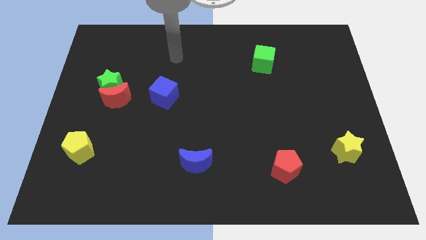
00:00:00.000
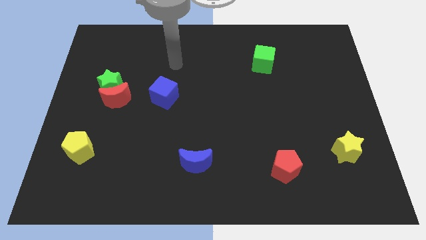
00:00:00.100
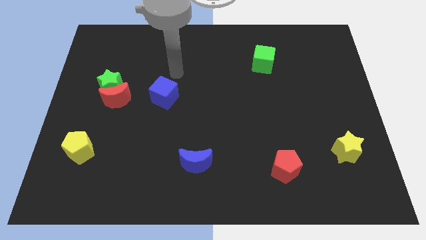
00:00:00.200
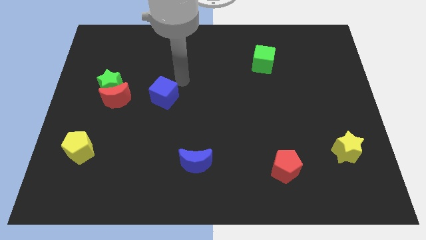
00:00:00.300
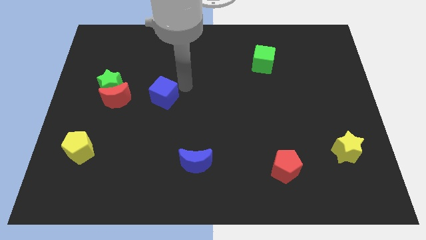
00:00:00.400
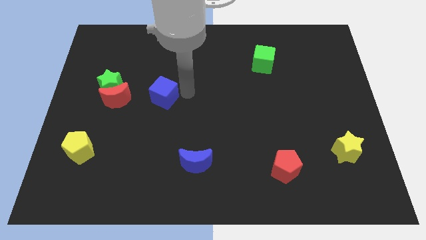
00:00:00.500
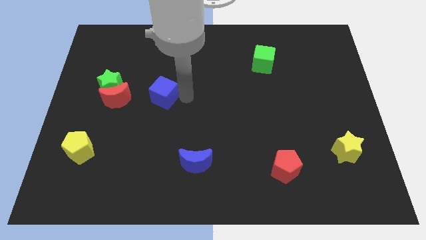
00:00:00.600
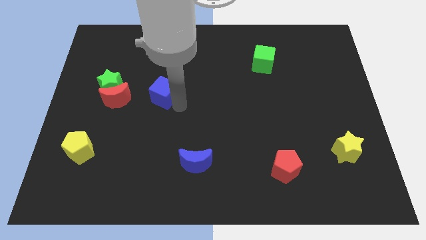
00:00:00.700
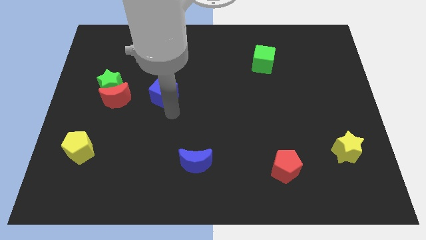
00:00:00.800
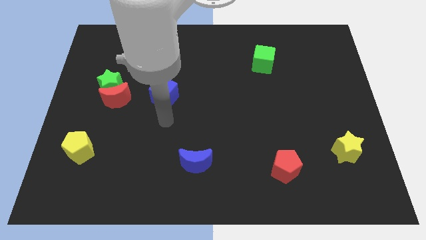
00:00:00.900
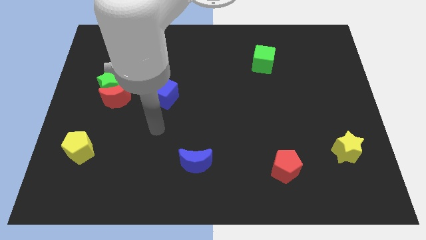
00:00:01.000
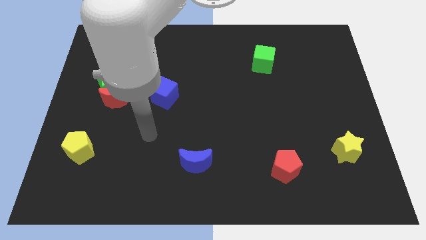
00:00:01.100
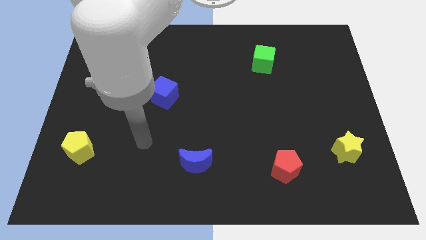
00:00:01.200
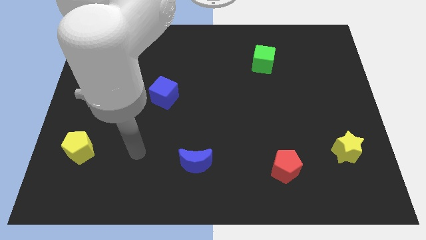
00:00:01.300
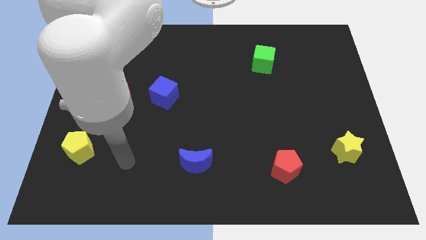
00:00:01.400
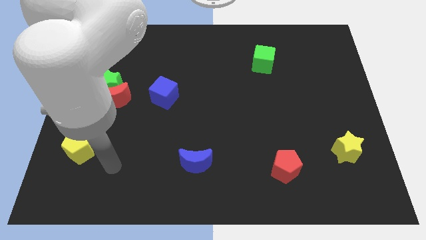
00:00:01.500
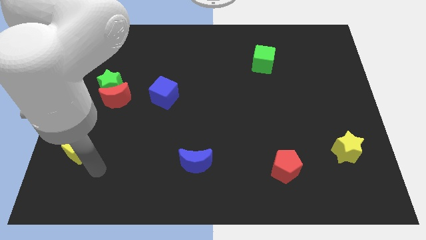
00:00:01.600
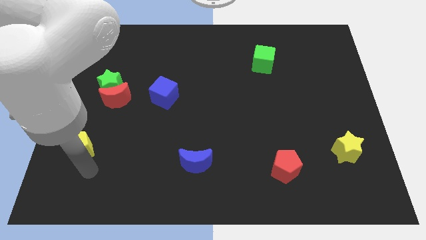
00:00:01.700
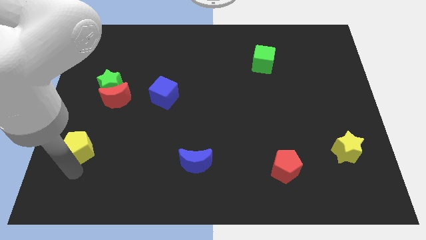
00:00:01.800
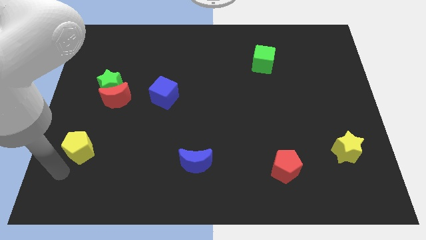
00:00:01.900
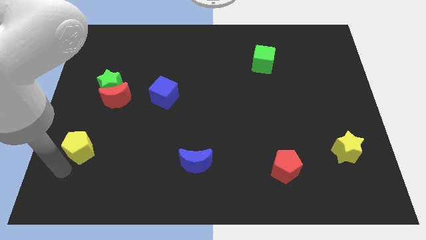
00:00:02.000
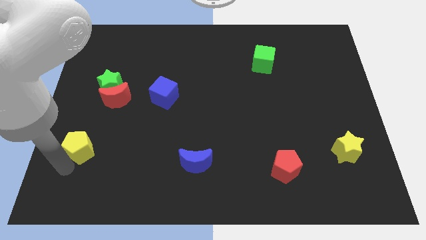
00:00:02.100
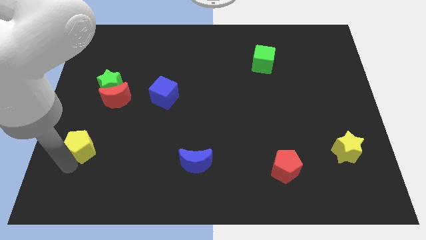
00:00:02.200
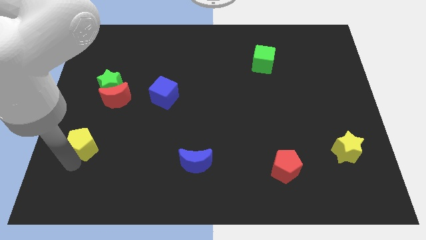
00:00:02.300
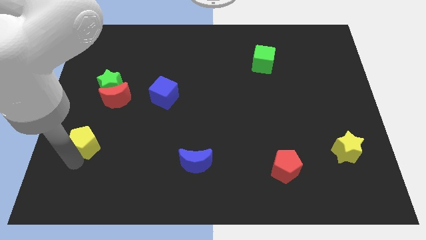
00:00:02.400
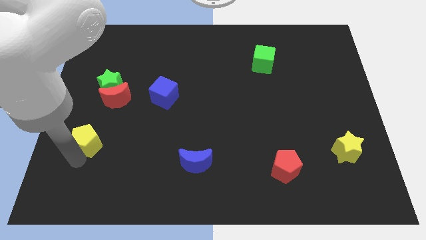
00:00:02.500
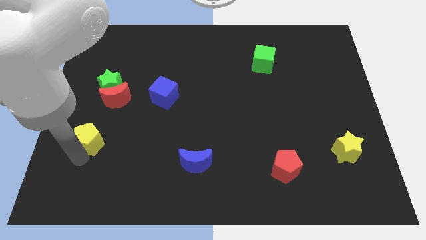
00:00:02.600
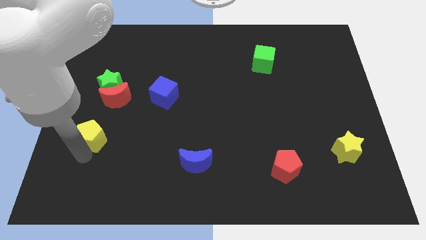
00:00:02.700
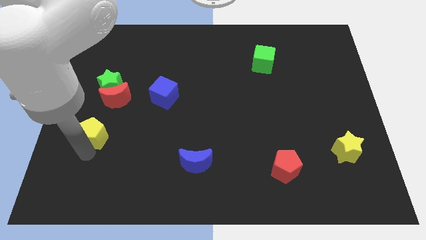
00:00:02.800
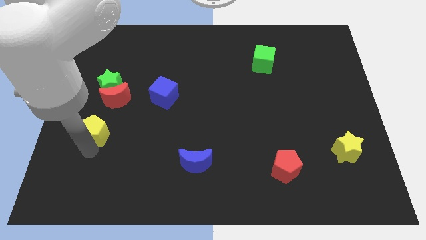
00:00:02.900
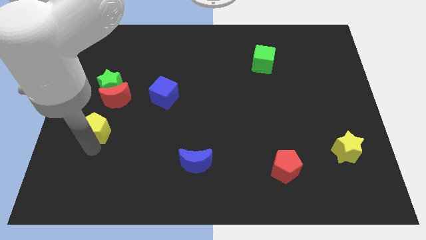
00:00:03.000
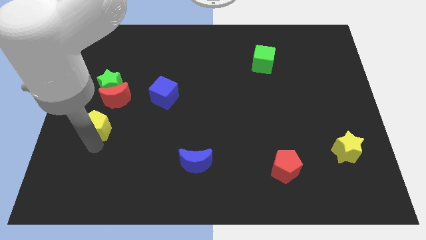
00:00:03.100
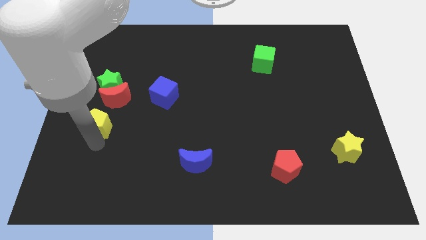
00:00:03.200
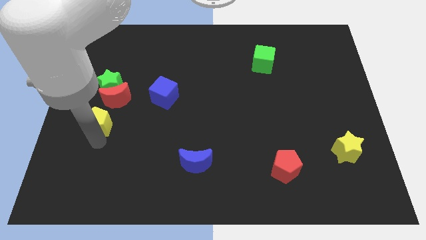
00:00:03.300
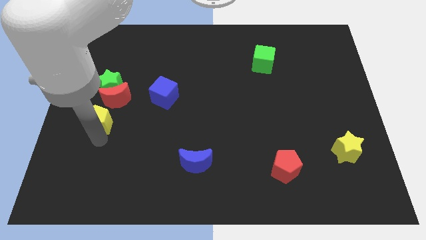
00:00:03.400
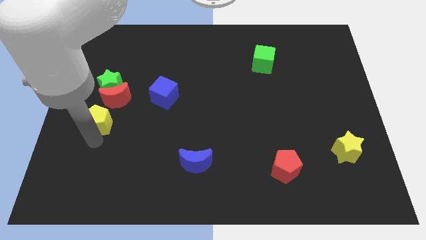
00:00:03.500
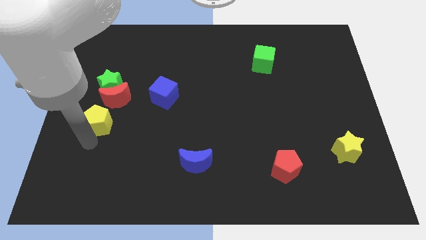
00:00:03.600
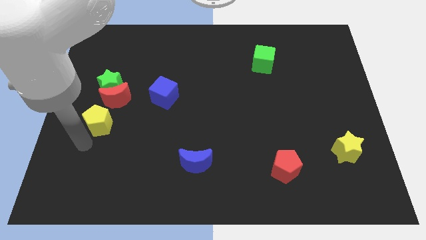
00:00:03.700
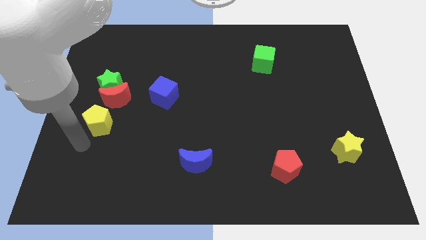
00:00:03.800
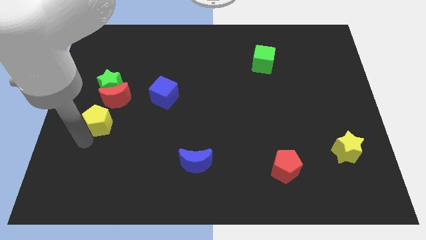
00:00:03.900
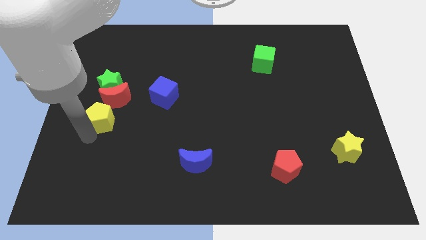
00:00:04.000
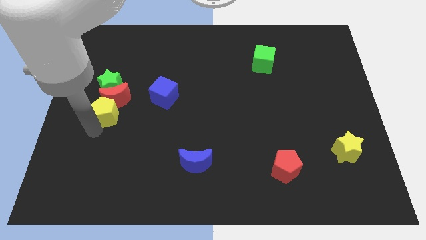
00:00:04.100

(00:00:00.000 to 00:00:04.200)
slide the yellow pentagon close to the red moon

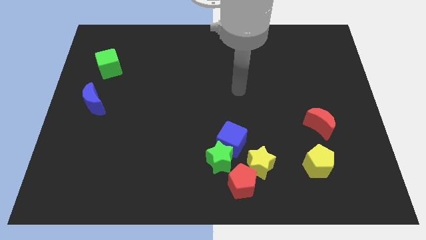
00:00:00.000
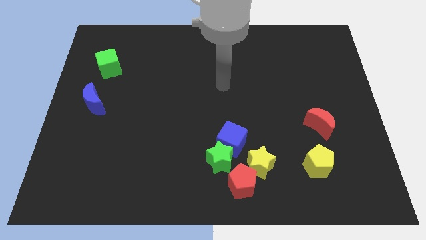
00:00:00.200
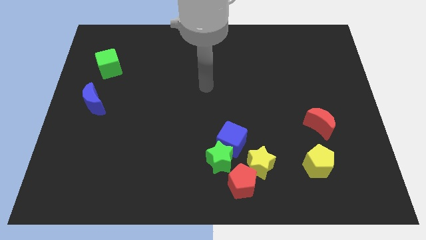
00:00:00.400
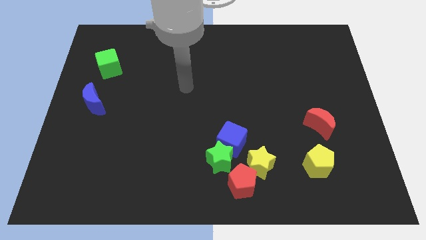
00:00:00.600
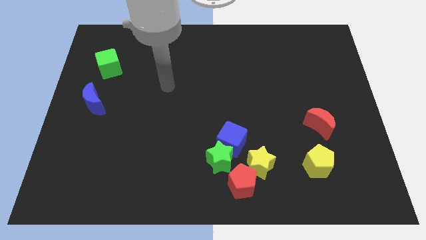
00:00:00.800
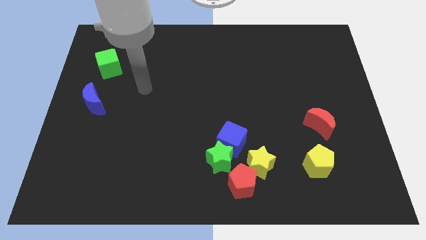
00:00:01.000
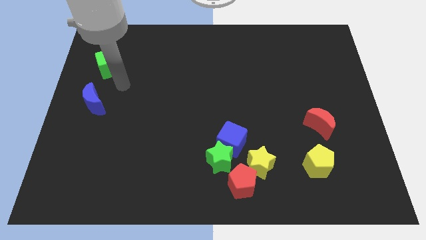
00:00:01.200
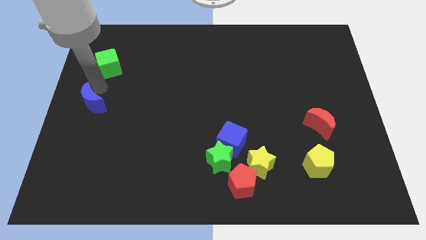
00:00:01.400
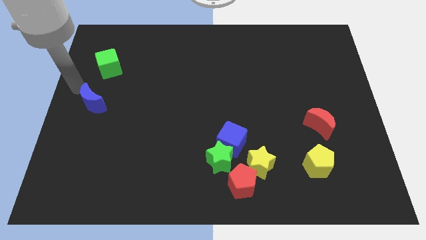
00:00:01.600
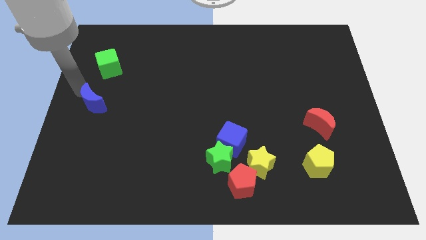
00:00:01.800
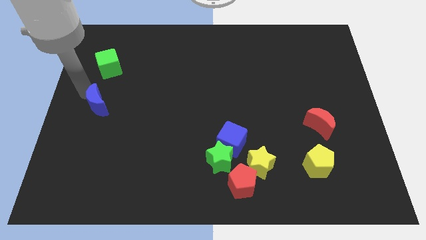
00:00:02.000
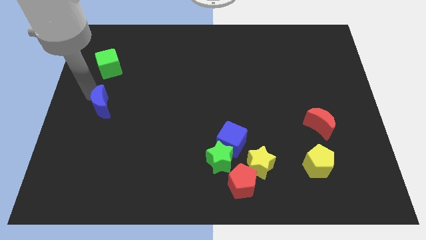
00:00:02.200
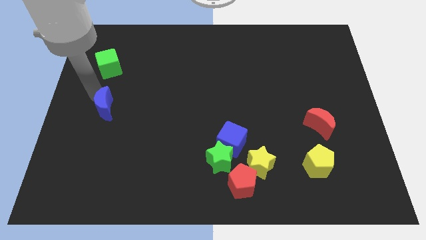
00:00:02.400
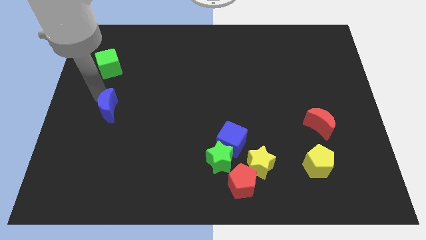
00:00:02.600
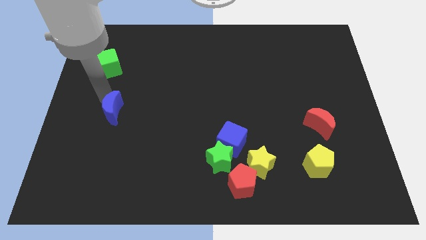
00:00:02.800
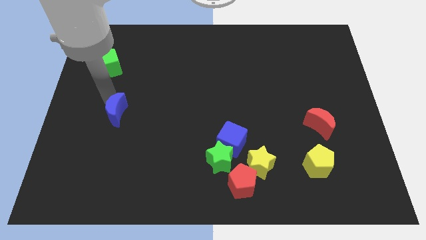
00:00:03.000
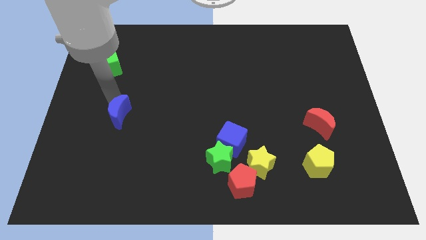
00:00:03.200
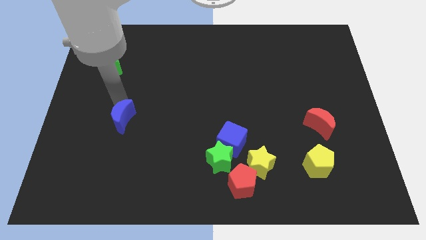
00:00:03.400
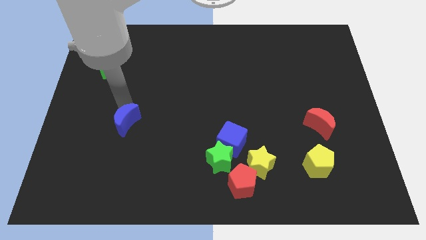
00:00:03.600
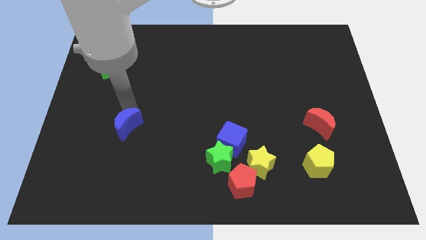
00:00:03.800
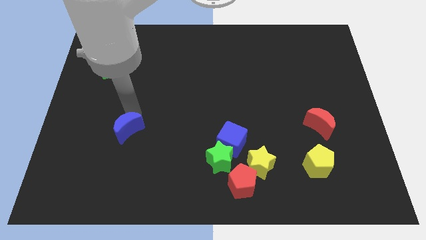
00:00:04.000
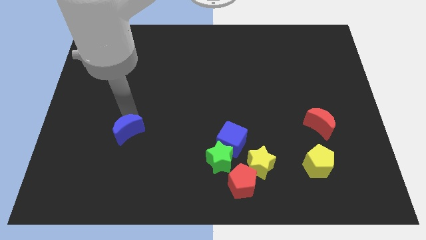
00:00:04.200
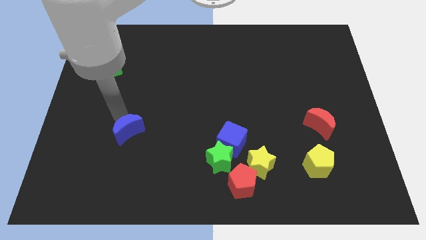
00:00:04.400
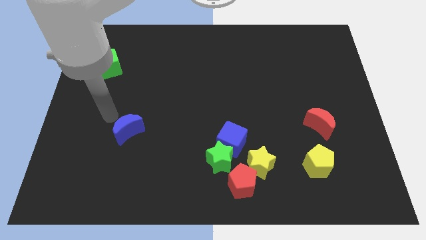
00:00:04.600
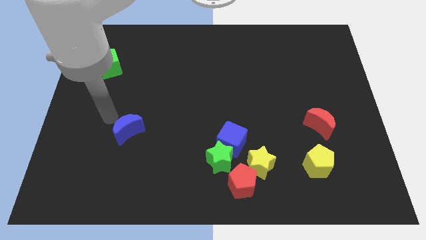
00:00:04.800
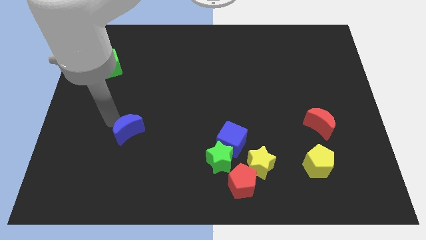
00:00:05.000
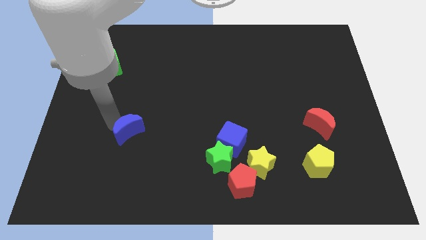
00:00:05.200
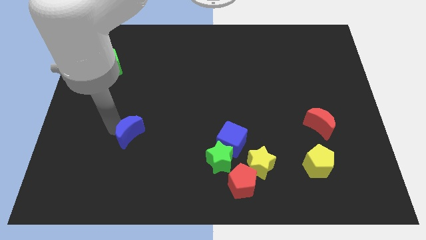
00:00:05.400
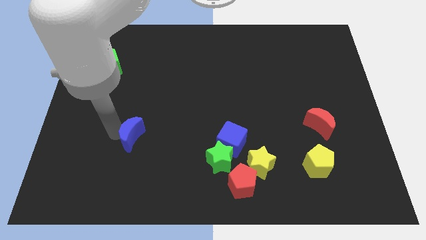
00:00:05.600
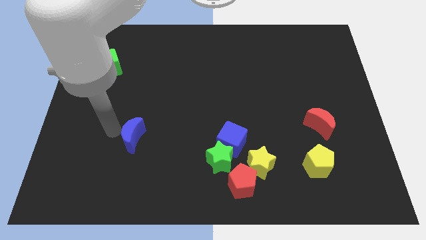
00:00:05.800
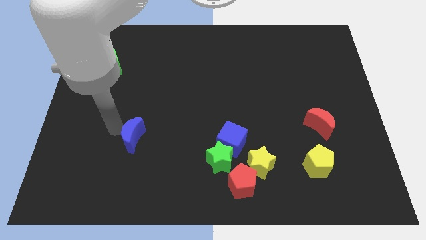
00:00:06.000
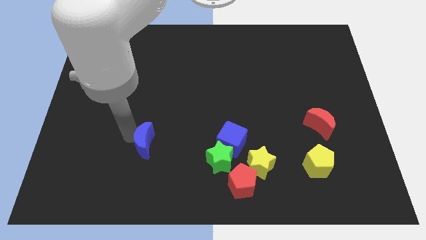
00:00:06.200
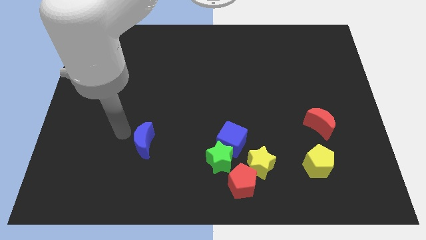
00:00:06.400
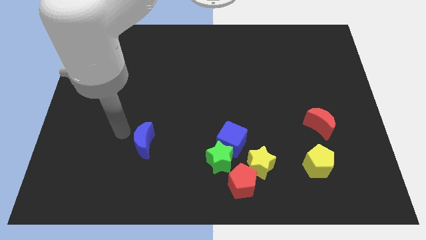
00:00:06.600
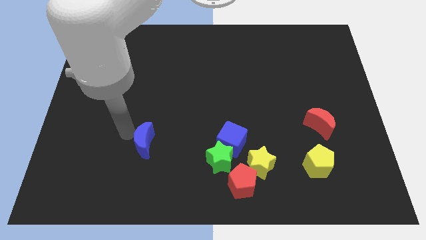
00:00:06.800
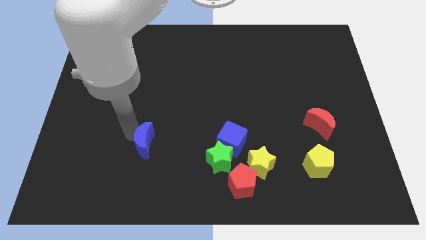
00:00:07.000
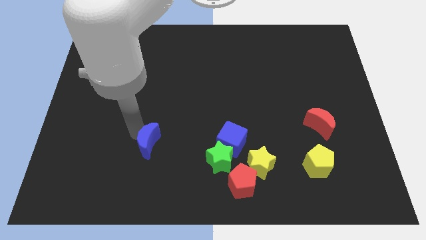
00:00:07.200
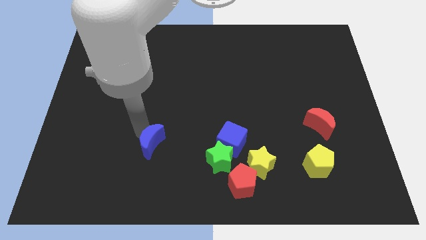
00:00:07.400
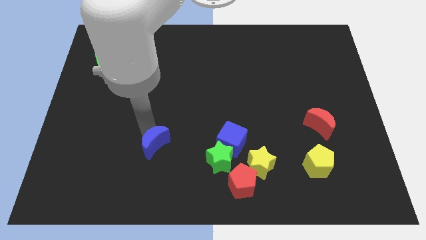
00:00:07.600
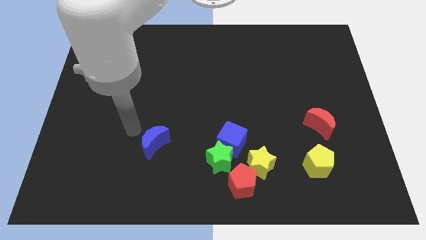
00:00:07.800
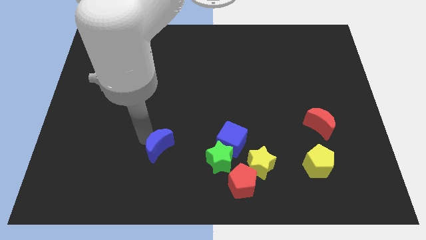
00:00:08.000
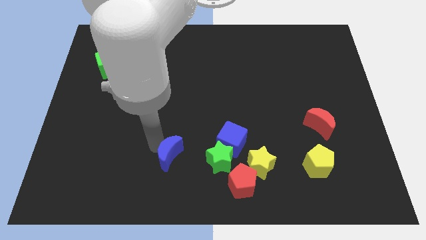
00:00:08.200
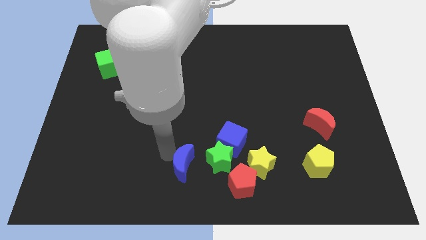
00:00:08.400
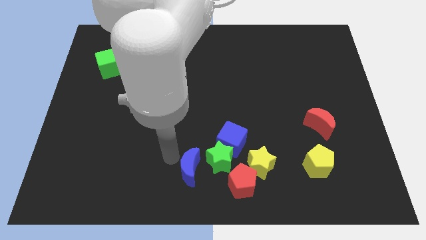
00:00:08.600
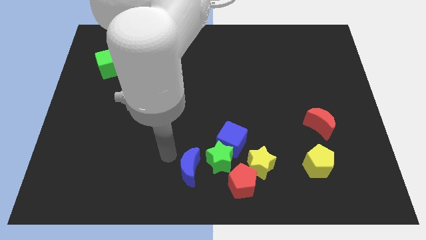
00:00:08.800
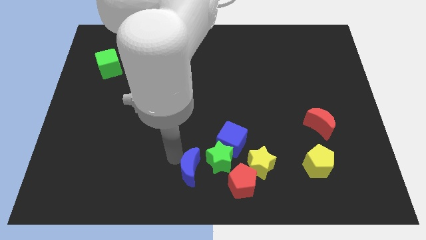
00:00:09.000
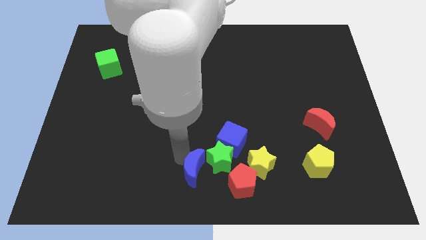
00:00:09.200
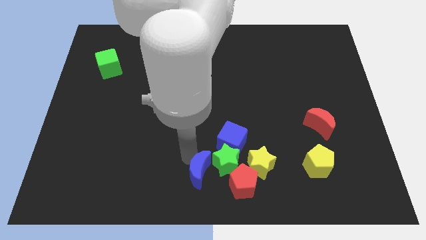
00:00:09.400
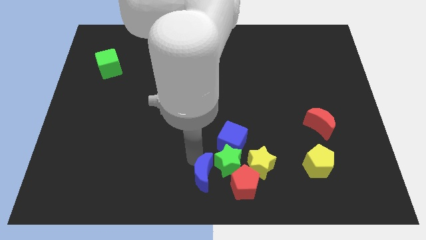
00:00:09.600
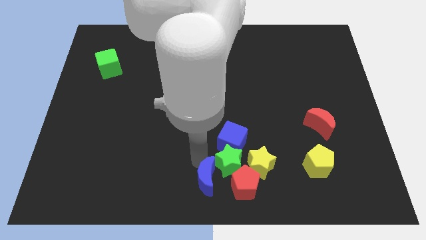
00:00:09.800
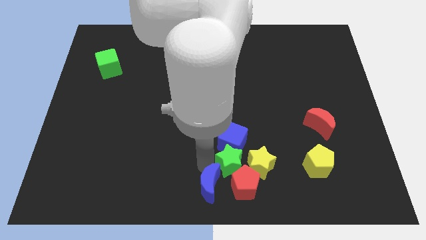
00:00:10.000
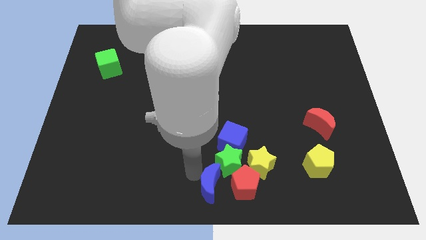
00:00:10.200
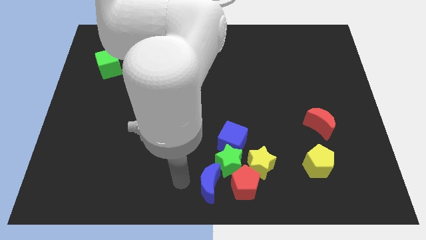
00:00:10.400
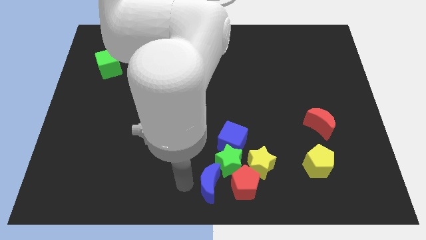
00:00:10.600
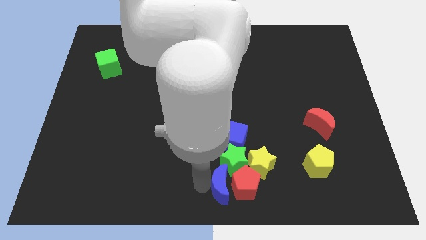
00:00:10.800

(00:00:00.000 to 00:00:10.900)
slide the blue moon to the red pentagon
